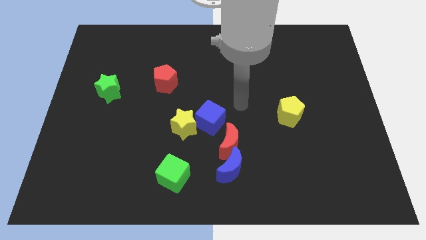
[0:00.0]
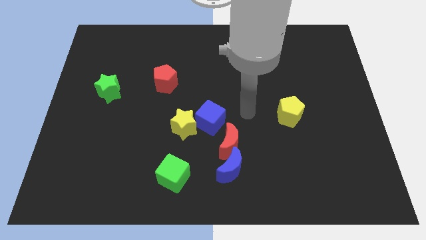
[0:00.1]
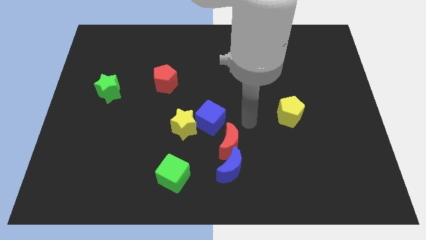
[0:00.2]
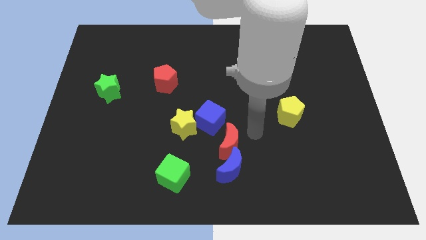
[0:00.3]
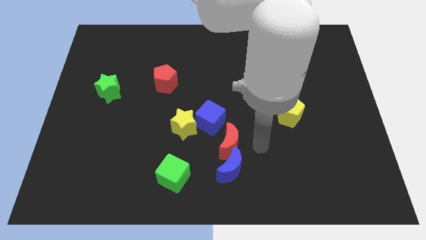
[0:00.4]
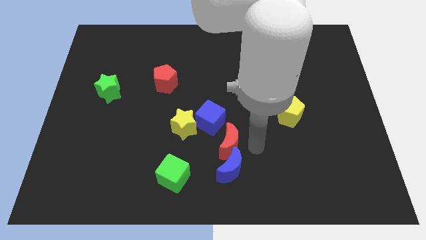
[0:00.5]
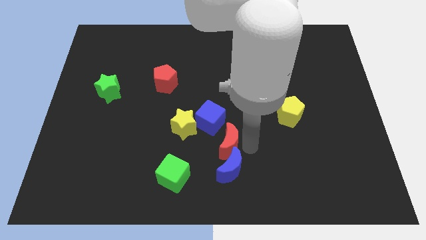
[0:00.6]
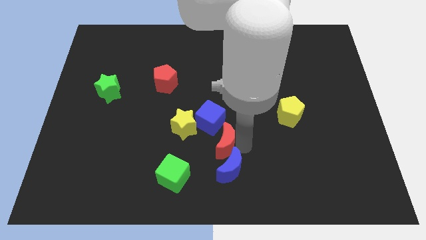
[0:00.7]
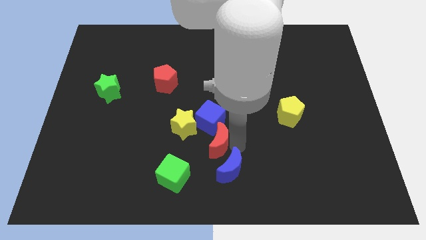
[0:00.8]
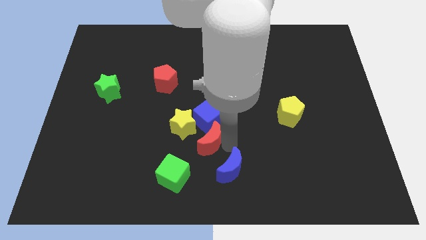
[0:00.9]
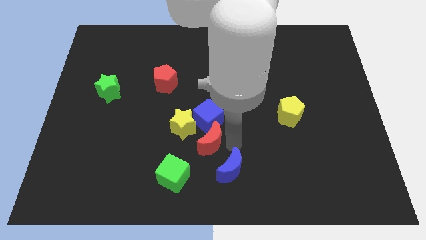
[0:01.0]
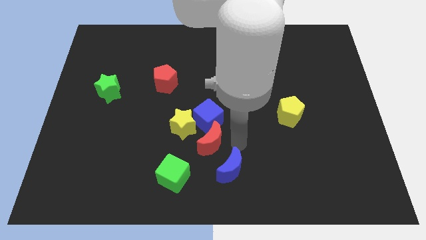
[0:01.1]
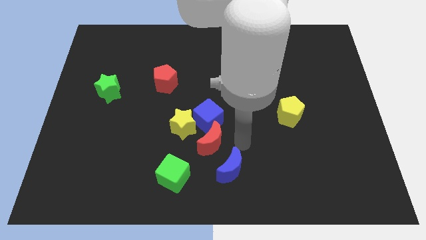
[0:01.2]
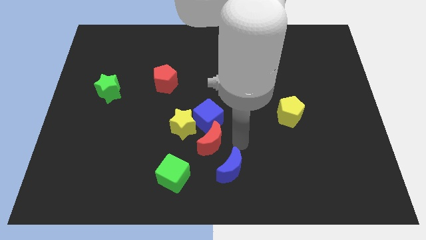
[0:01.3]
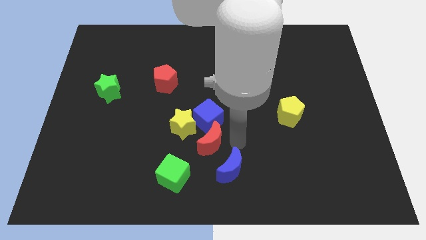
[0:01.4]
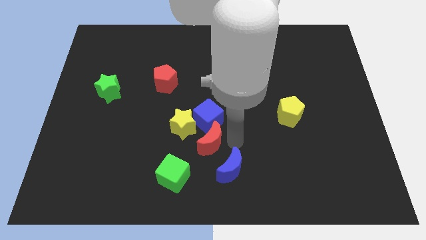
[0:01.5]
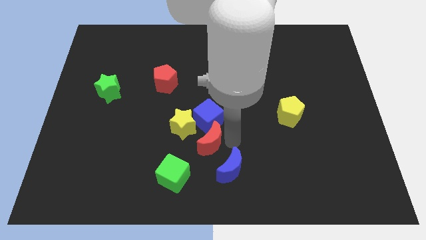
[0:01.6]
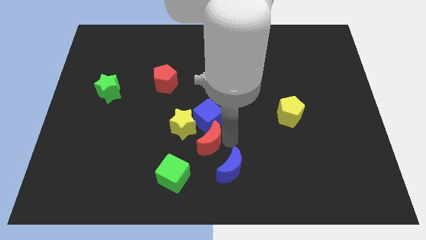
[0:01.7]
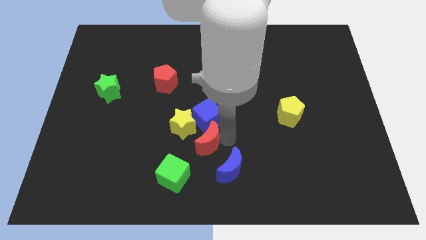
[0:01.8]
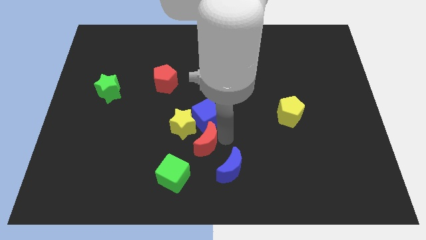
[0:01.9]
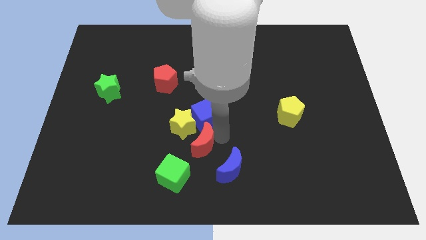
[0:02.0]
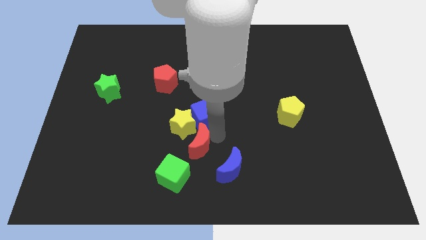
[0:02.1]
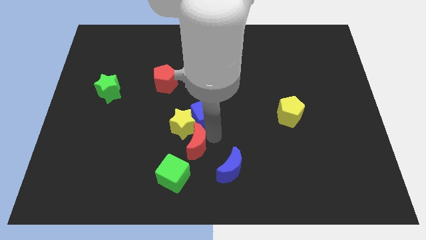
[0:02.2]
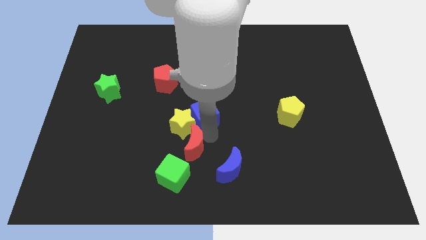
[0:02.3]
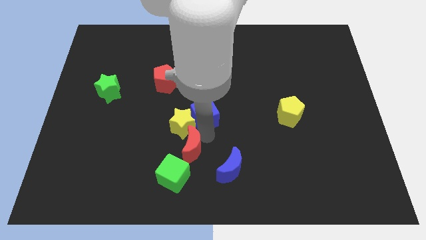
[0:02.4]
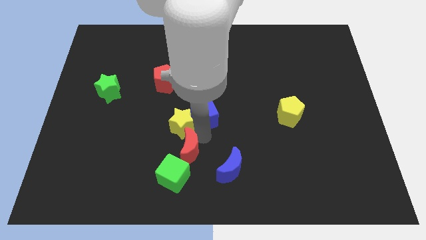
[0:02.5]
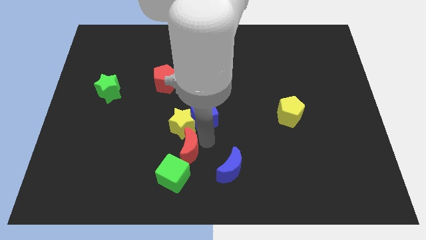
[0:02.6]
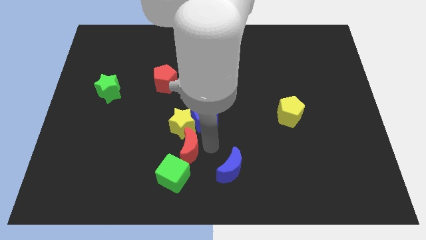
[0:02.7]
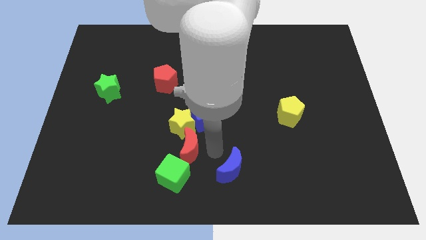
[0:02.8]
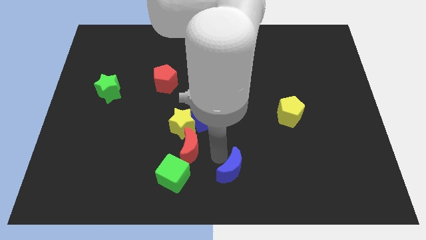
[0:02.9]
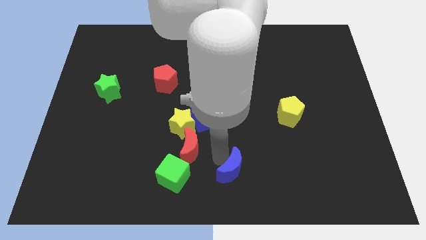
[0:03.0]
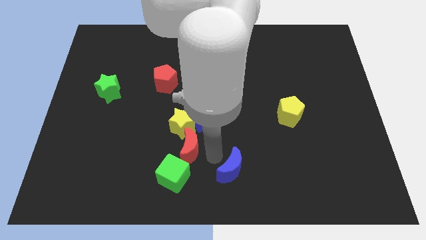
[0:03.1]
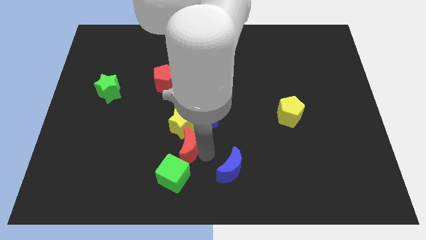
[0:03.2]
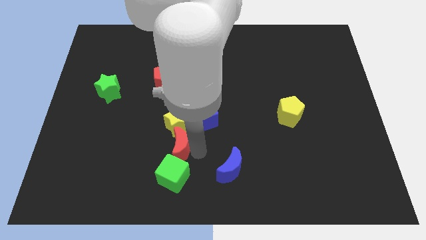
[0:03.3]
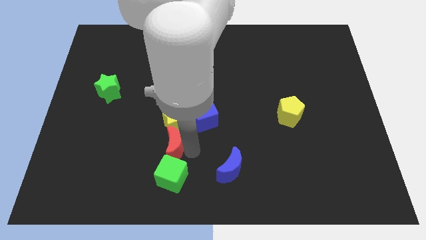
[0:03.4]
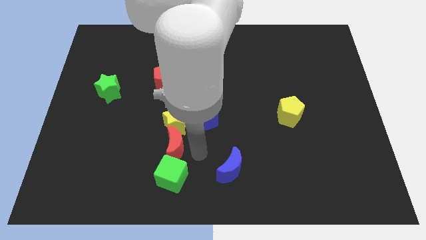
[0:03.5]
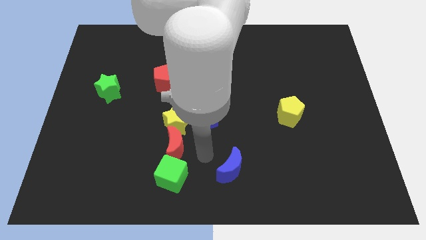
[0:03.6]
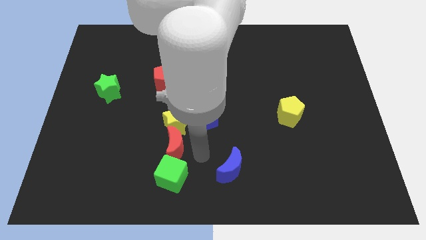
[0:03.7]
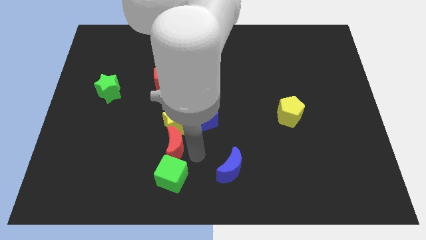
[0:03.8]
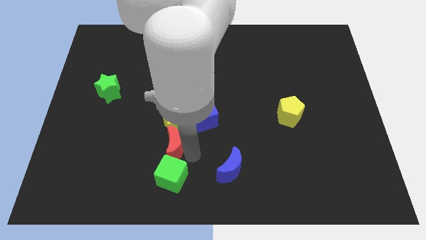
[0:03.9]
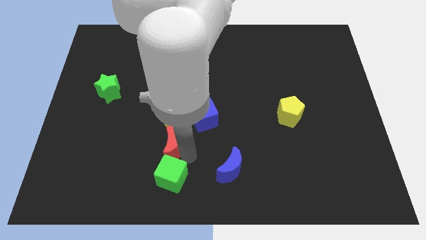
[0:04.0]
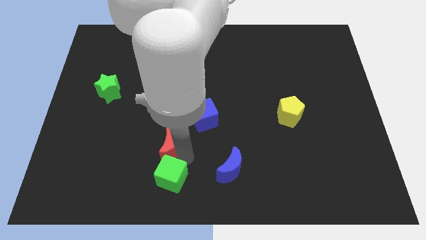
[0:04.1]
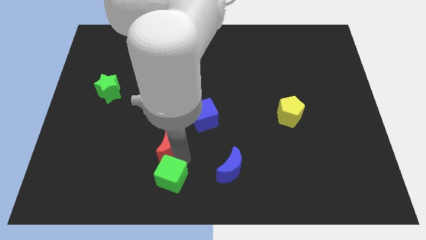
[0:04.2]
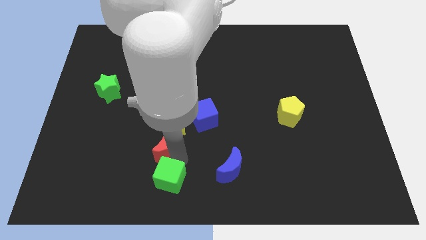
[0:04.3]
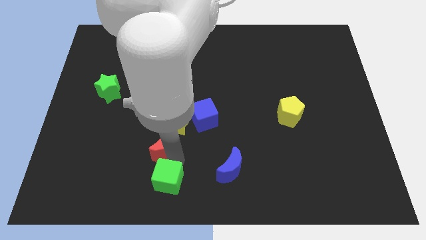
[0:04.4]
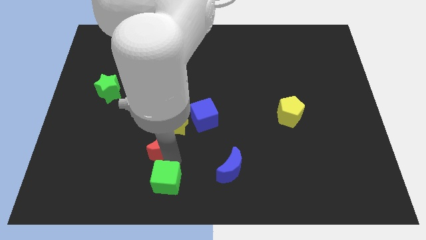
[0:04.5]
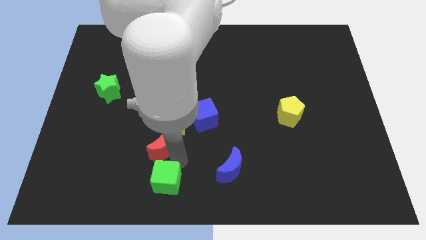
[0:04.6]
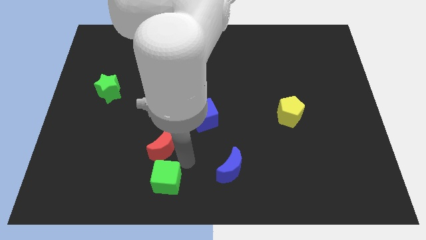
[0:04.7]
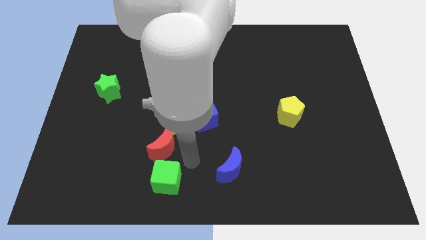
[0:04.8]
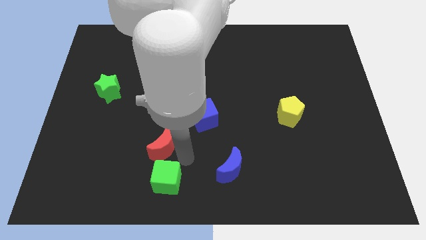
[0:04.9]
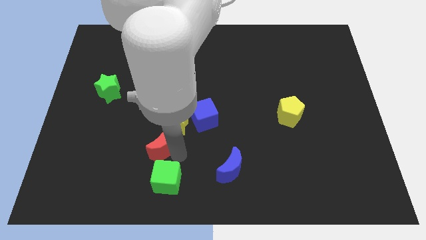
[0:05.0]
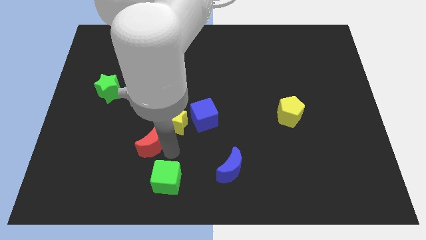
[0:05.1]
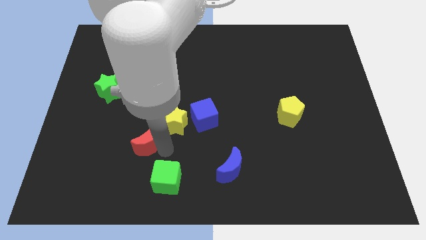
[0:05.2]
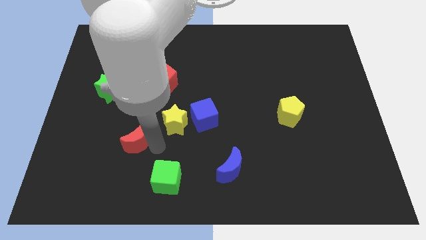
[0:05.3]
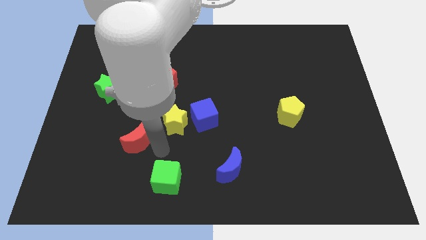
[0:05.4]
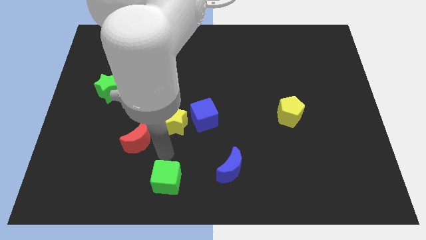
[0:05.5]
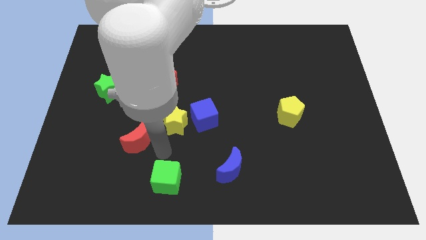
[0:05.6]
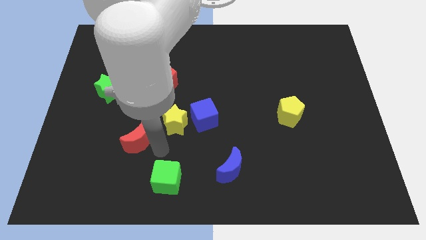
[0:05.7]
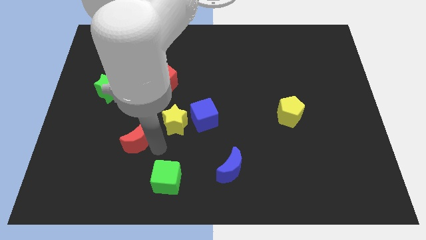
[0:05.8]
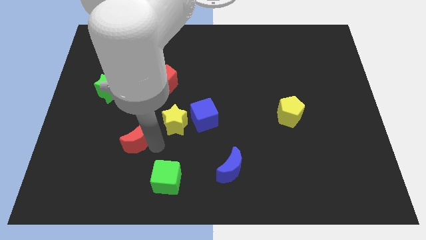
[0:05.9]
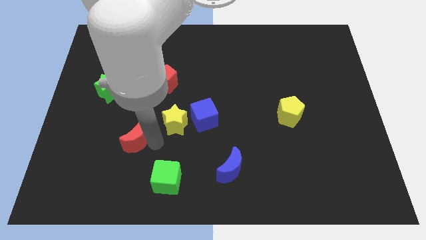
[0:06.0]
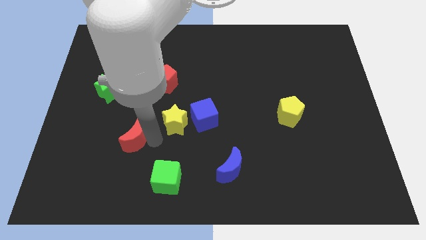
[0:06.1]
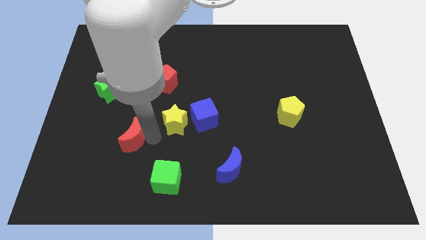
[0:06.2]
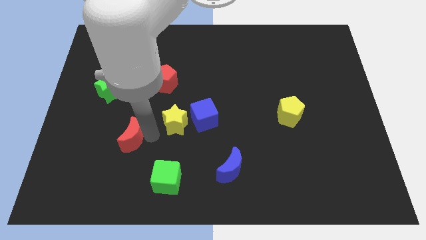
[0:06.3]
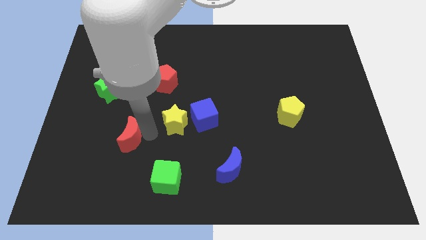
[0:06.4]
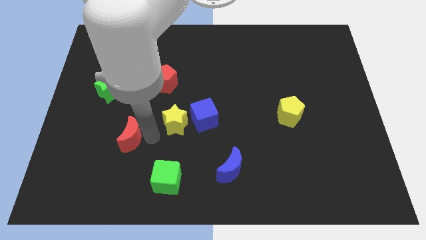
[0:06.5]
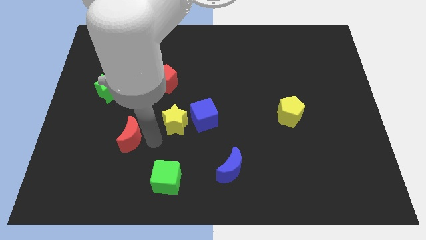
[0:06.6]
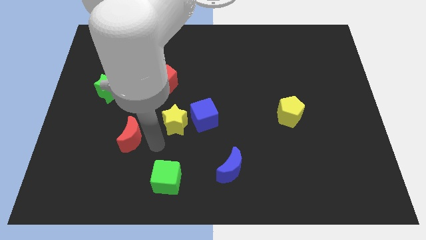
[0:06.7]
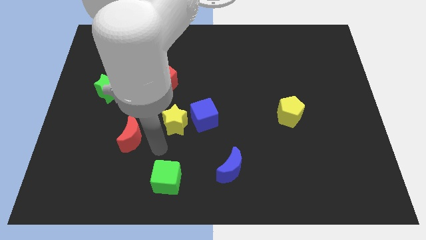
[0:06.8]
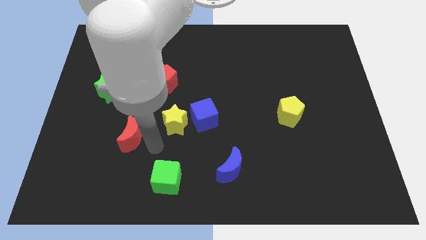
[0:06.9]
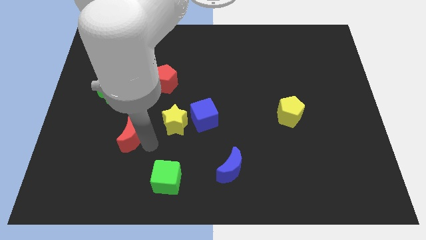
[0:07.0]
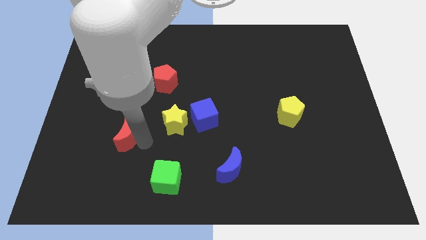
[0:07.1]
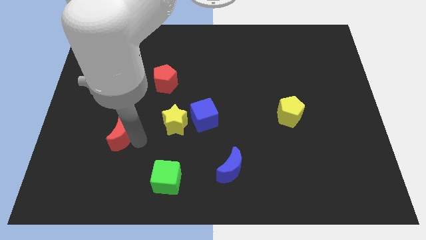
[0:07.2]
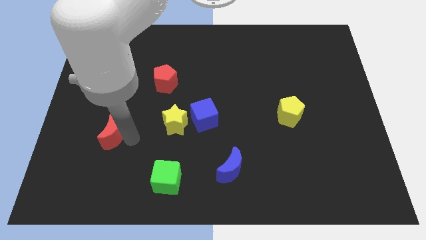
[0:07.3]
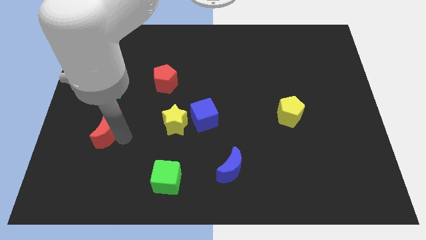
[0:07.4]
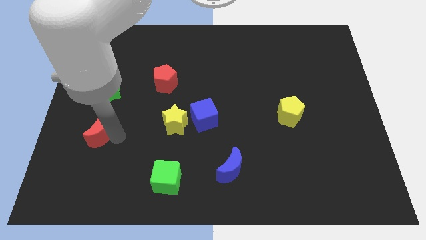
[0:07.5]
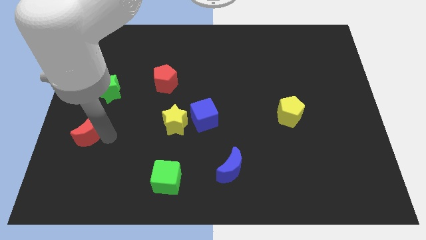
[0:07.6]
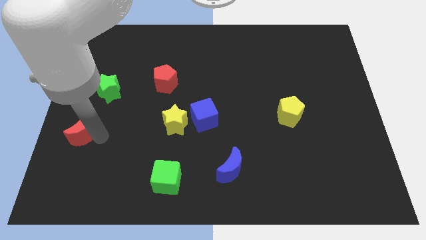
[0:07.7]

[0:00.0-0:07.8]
move the red moon to the center left
